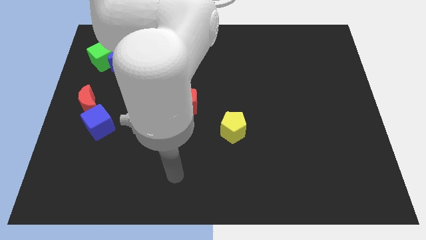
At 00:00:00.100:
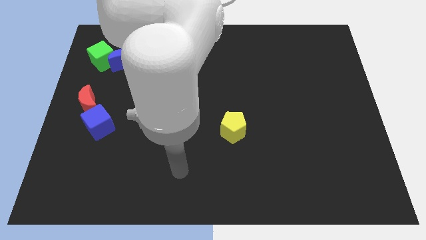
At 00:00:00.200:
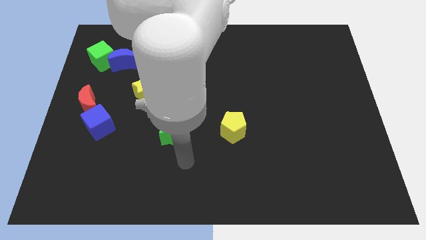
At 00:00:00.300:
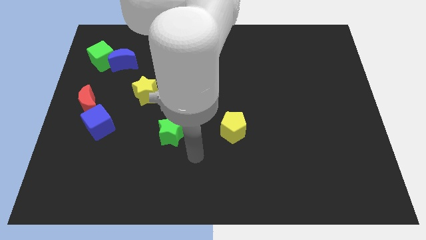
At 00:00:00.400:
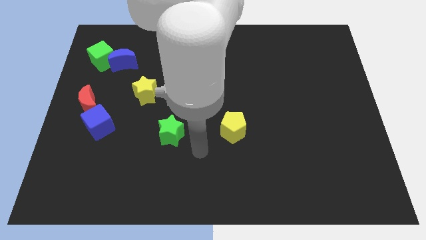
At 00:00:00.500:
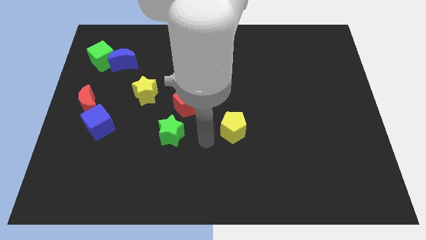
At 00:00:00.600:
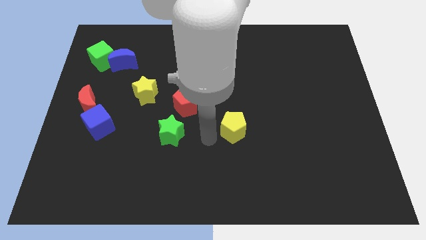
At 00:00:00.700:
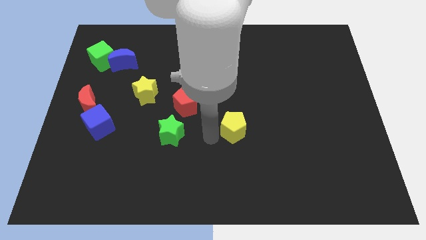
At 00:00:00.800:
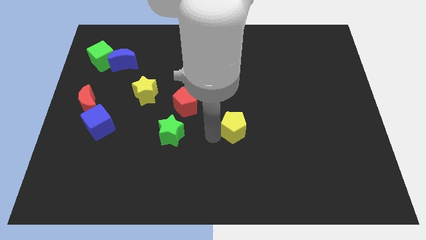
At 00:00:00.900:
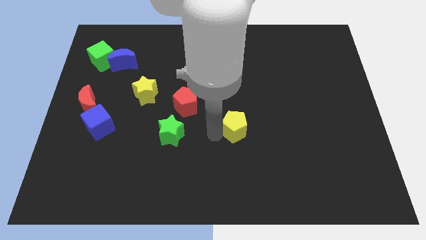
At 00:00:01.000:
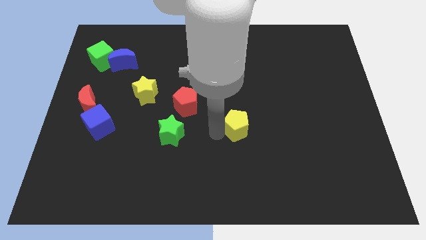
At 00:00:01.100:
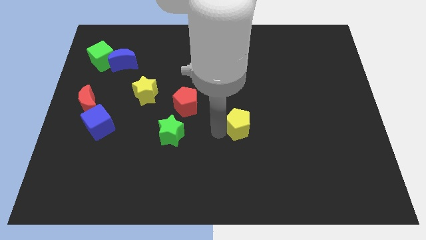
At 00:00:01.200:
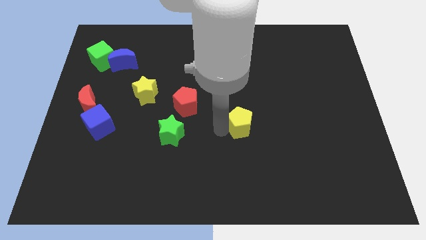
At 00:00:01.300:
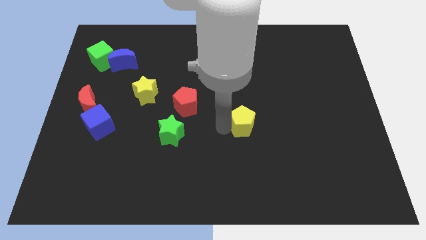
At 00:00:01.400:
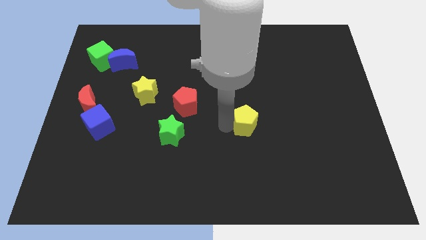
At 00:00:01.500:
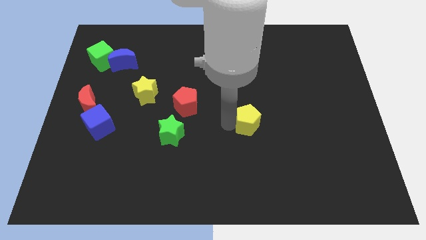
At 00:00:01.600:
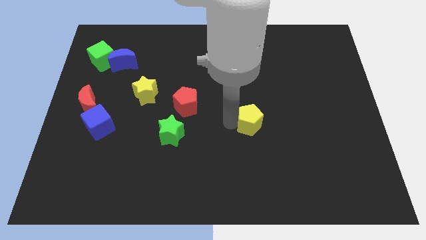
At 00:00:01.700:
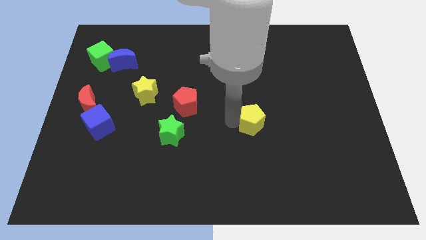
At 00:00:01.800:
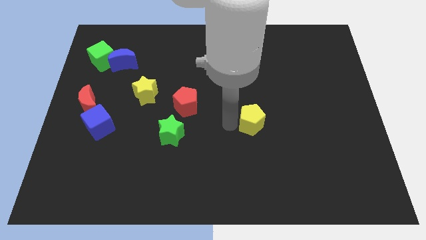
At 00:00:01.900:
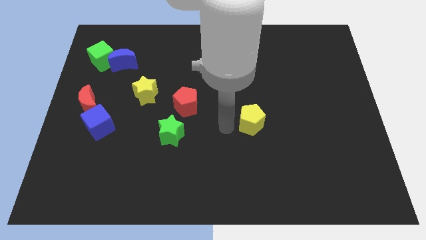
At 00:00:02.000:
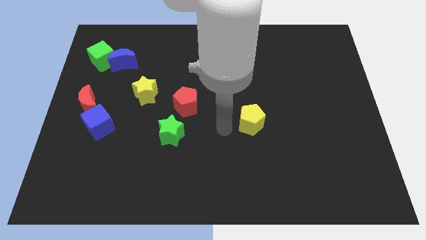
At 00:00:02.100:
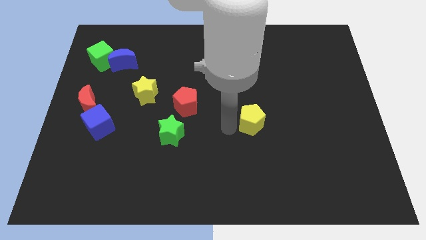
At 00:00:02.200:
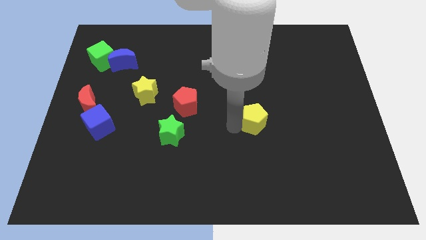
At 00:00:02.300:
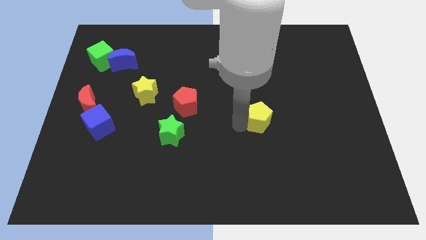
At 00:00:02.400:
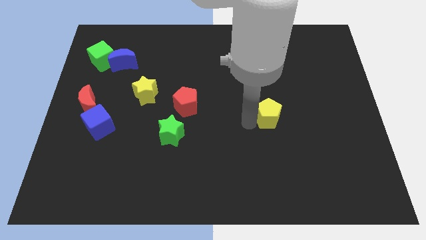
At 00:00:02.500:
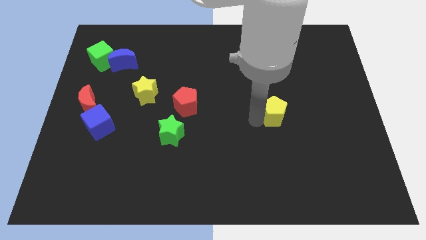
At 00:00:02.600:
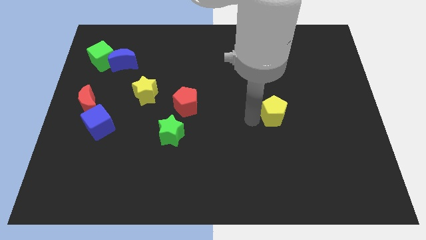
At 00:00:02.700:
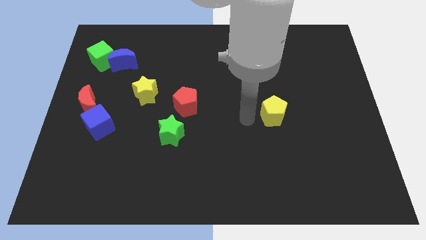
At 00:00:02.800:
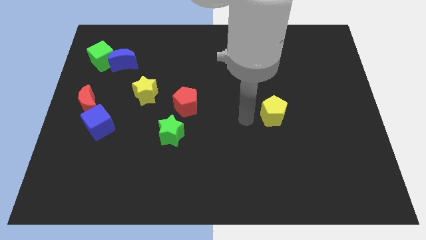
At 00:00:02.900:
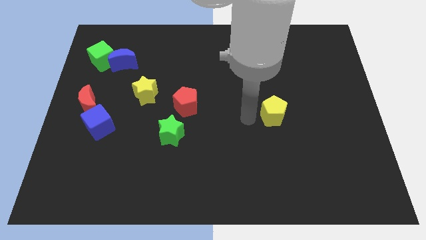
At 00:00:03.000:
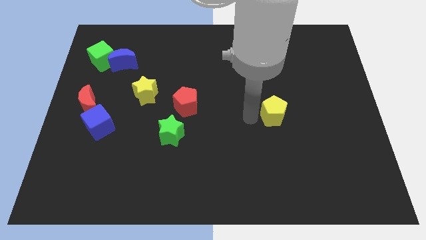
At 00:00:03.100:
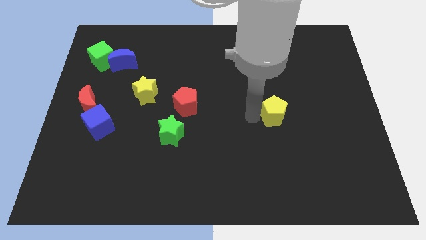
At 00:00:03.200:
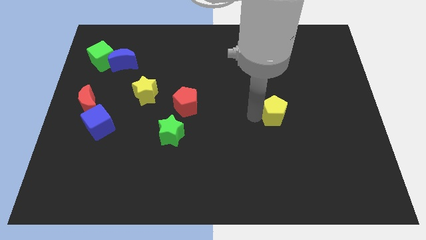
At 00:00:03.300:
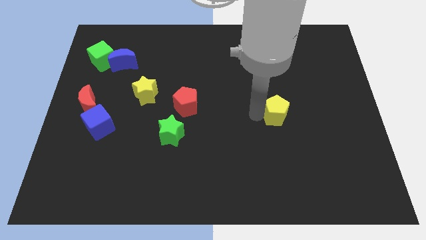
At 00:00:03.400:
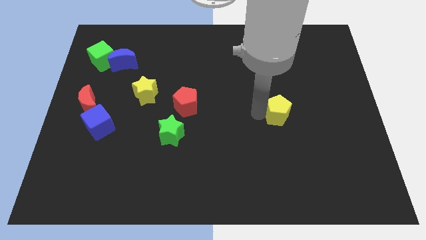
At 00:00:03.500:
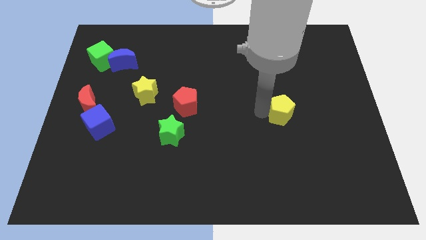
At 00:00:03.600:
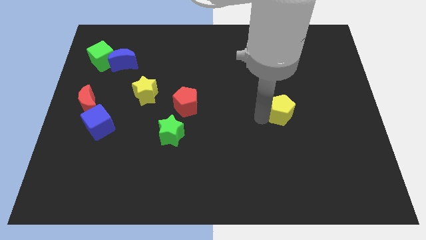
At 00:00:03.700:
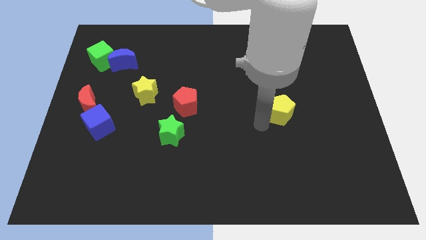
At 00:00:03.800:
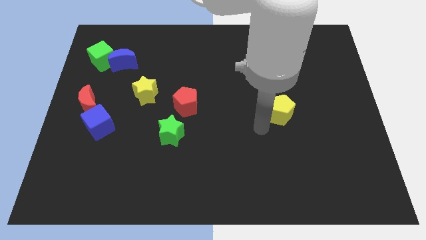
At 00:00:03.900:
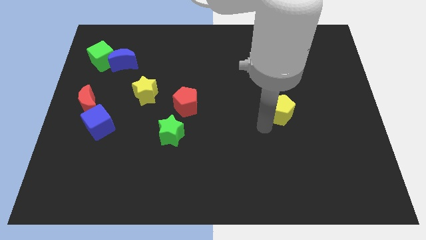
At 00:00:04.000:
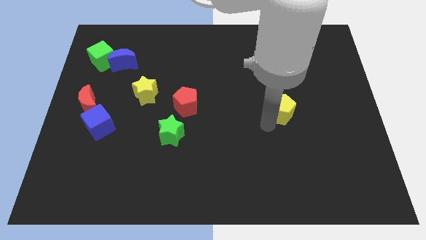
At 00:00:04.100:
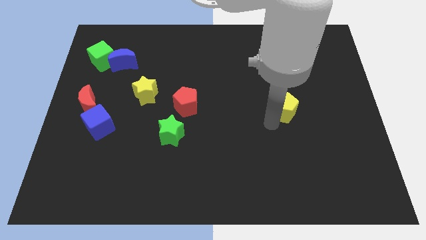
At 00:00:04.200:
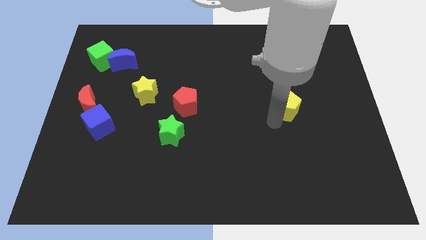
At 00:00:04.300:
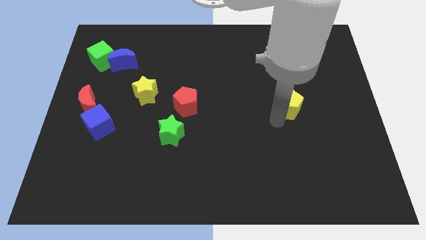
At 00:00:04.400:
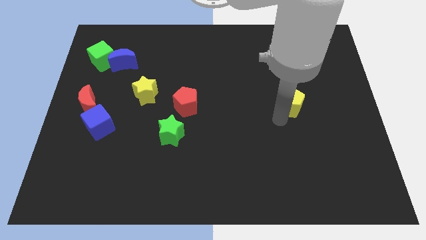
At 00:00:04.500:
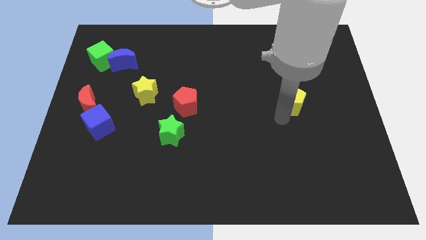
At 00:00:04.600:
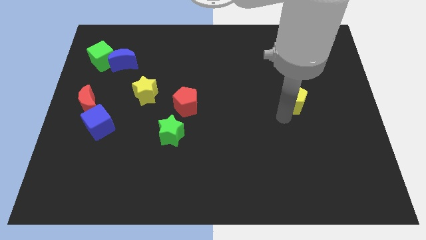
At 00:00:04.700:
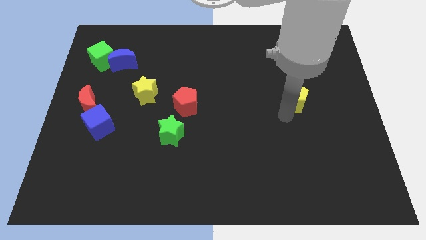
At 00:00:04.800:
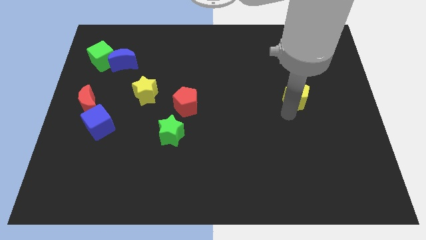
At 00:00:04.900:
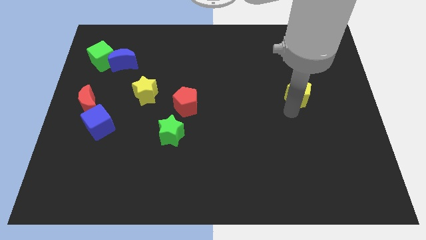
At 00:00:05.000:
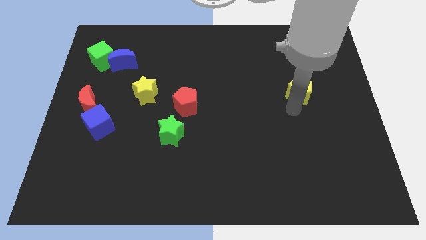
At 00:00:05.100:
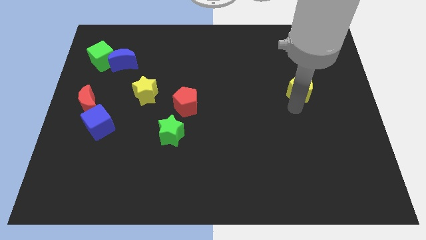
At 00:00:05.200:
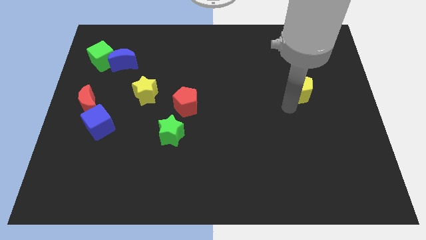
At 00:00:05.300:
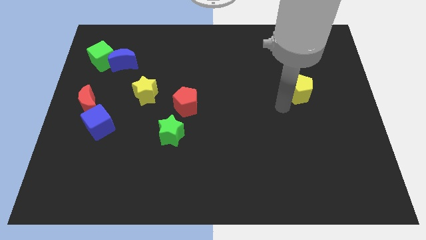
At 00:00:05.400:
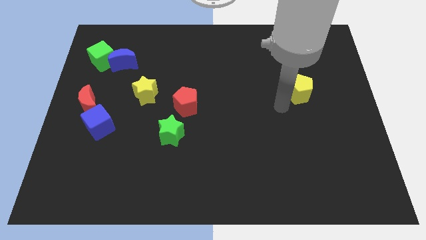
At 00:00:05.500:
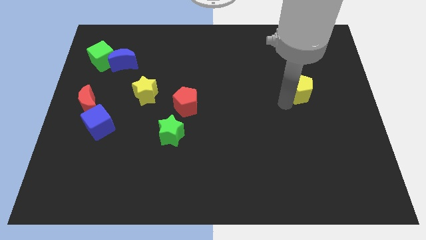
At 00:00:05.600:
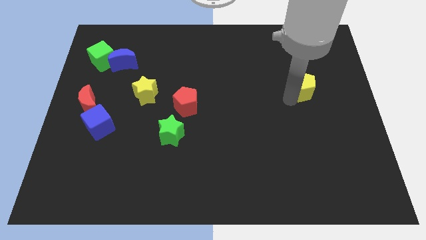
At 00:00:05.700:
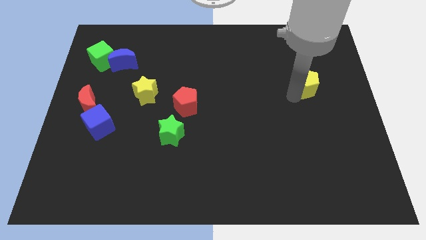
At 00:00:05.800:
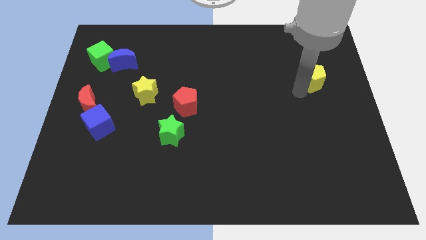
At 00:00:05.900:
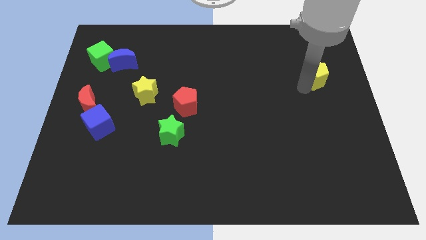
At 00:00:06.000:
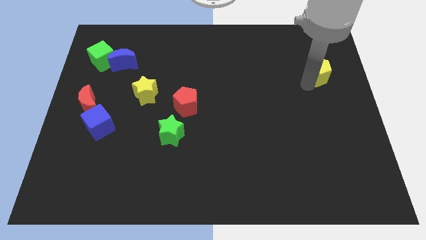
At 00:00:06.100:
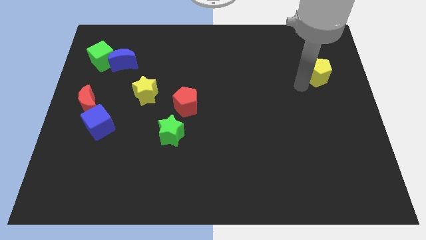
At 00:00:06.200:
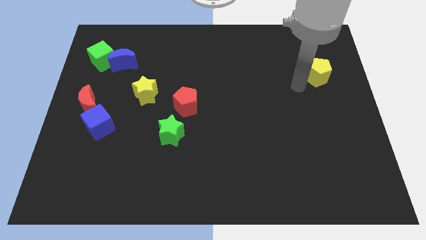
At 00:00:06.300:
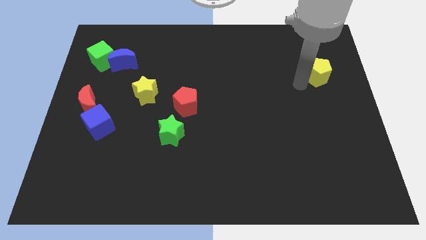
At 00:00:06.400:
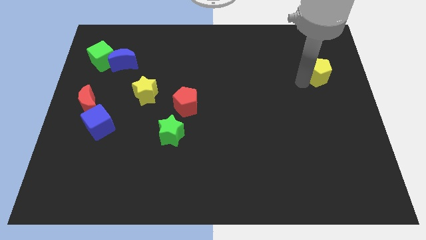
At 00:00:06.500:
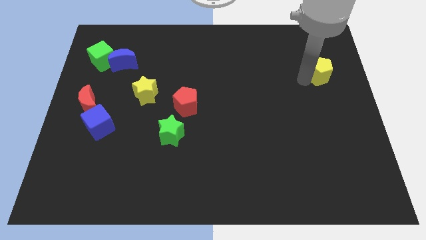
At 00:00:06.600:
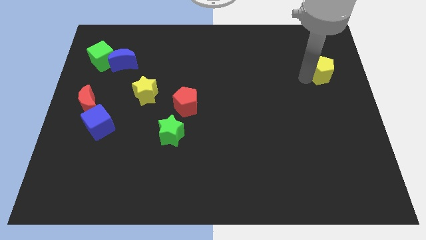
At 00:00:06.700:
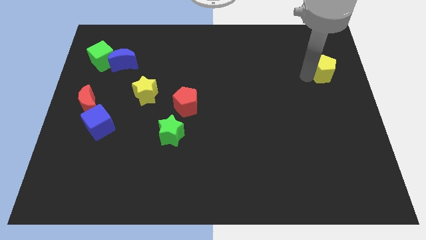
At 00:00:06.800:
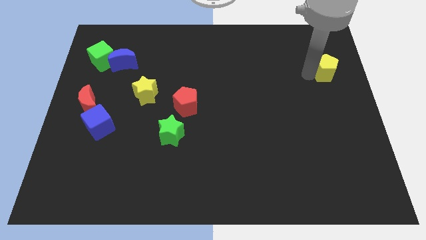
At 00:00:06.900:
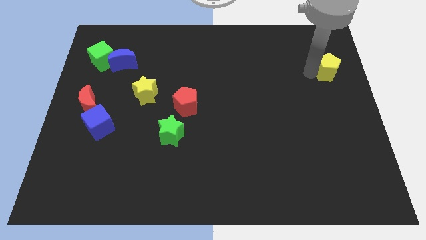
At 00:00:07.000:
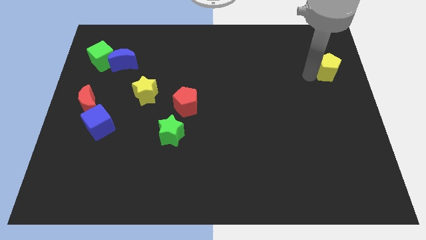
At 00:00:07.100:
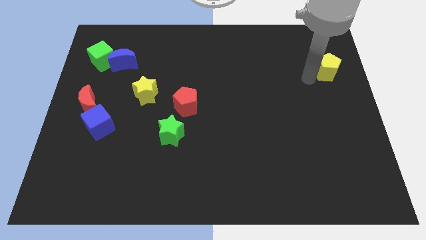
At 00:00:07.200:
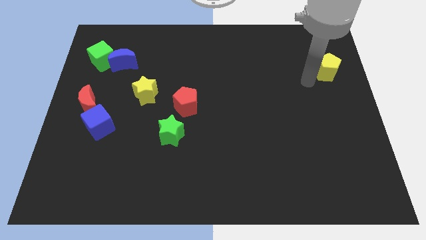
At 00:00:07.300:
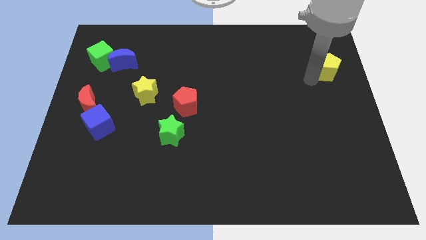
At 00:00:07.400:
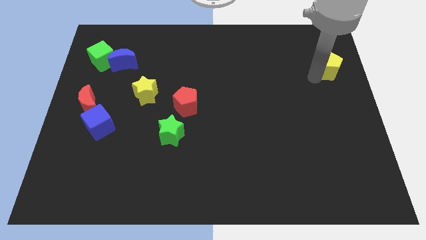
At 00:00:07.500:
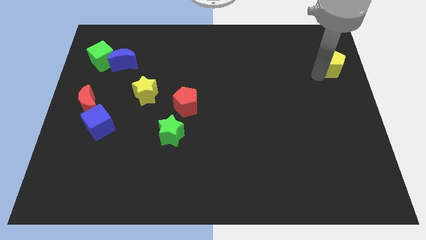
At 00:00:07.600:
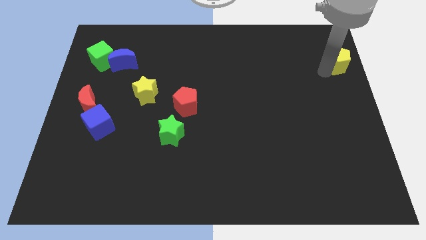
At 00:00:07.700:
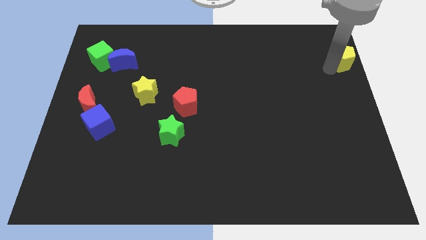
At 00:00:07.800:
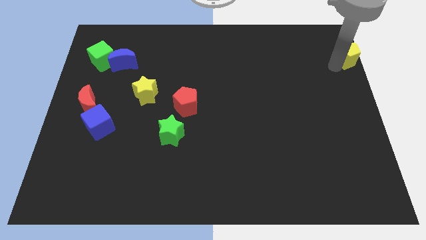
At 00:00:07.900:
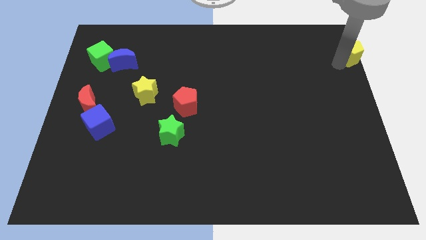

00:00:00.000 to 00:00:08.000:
slide the yellow pentagon to the top right corner
